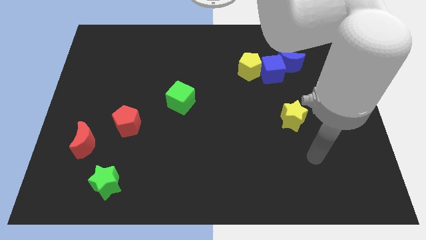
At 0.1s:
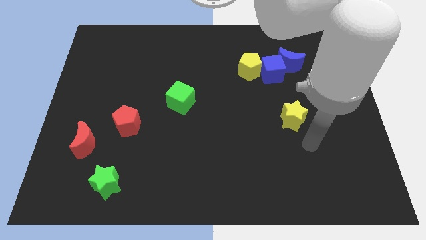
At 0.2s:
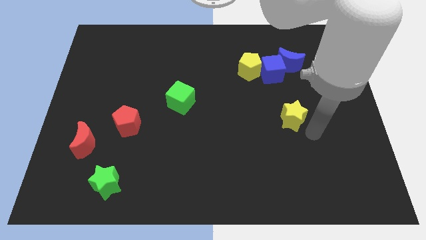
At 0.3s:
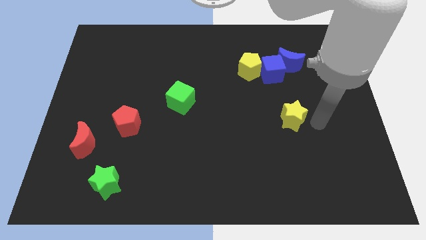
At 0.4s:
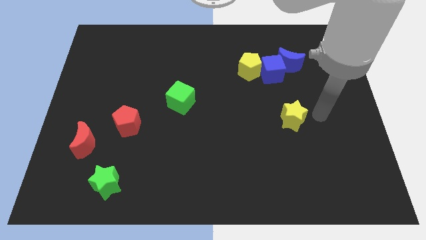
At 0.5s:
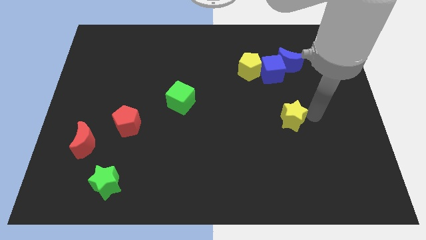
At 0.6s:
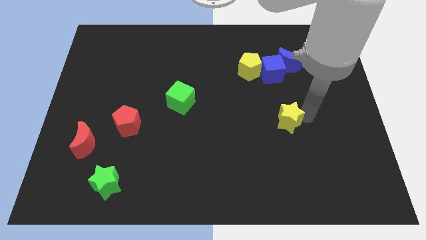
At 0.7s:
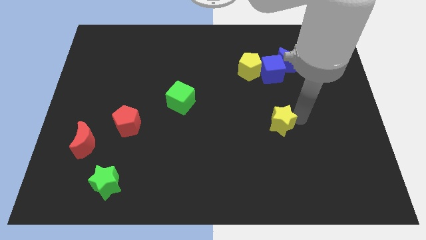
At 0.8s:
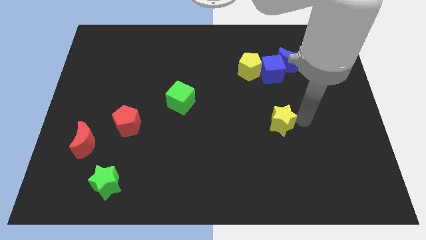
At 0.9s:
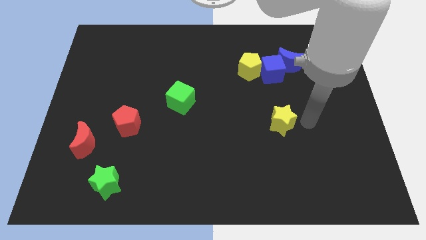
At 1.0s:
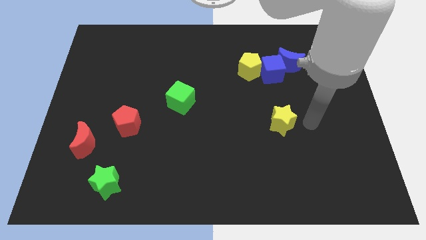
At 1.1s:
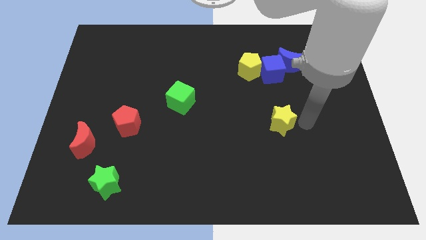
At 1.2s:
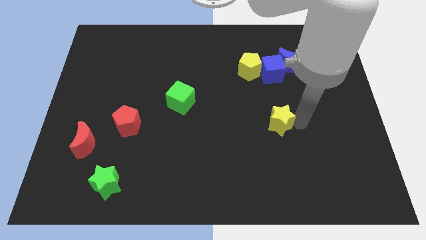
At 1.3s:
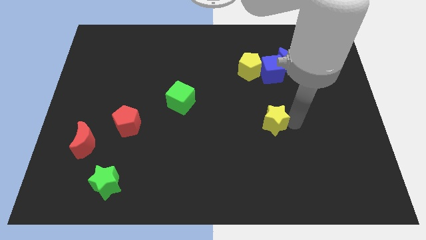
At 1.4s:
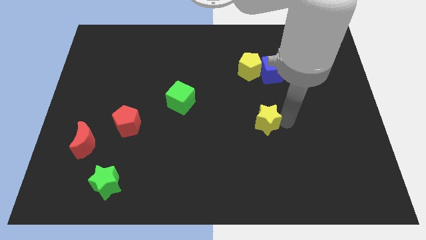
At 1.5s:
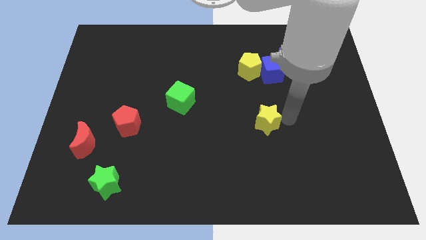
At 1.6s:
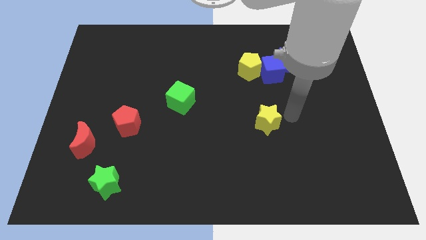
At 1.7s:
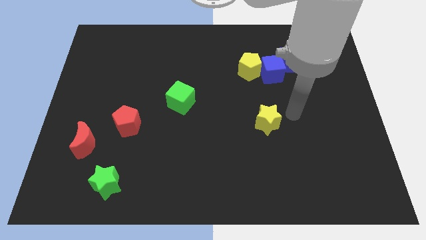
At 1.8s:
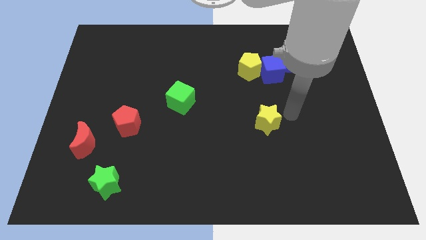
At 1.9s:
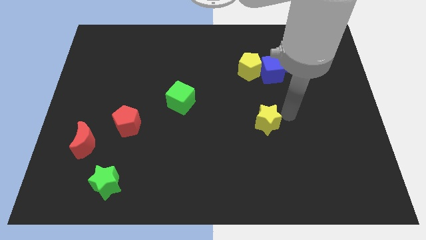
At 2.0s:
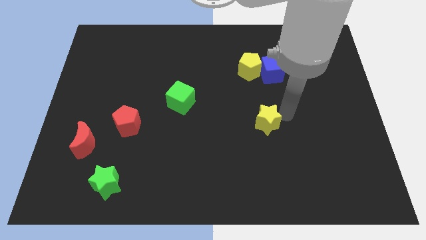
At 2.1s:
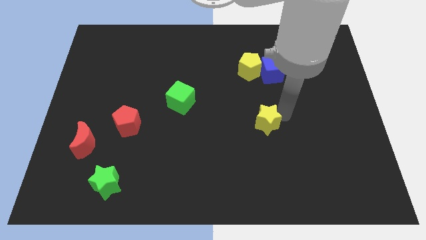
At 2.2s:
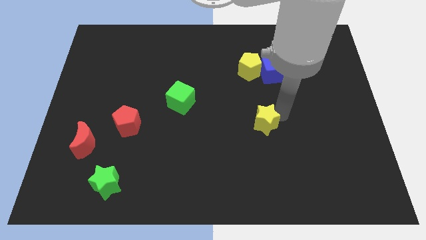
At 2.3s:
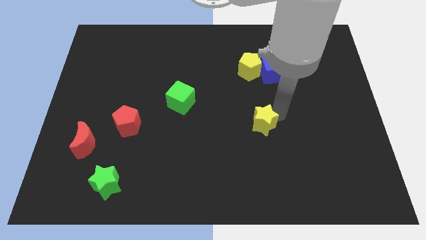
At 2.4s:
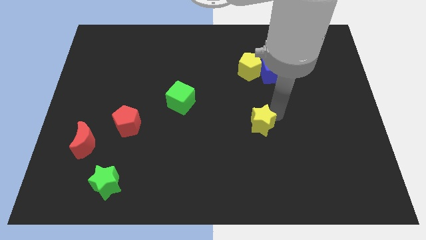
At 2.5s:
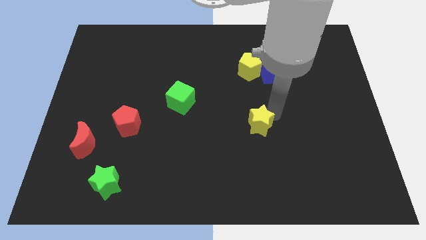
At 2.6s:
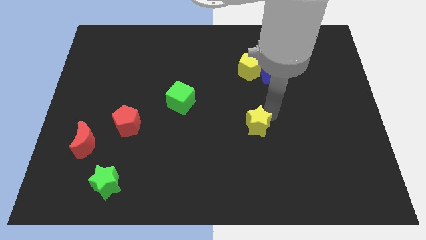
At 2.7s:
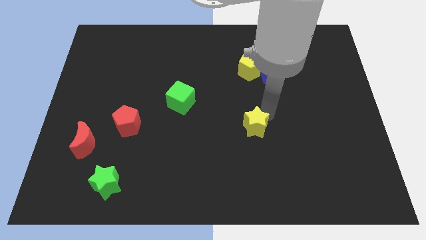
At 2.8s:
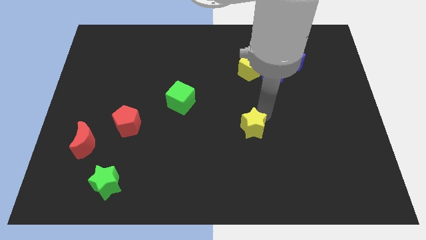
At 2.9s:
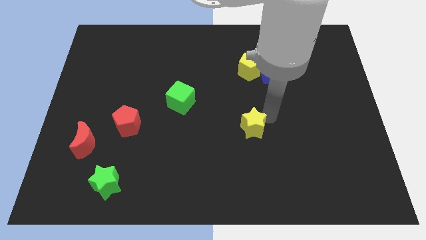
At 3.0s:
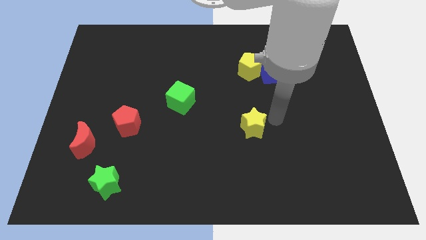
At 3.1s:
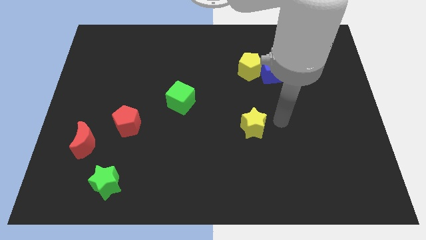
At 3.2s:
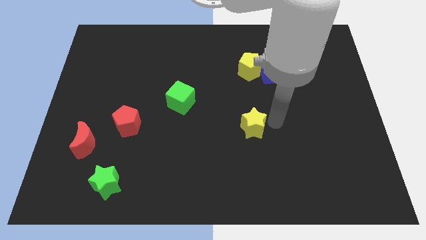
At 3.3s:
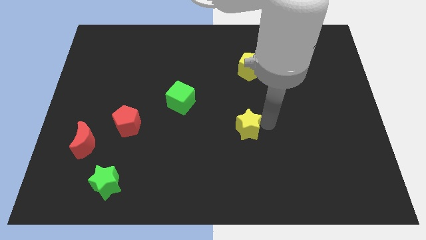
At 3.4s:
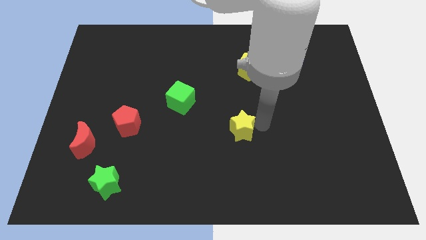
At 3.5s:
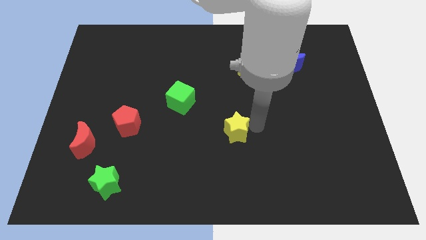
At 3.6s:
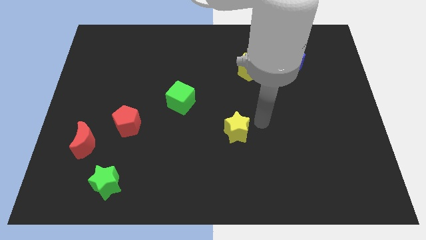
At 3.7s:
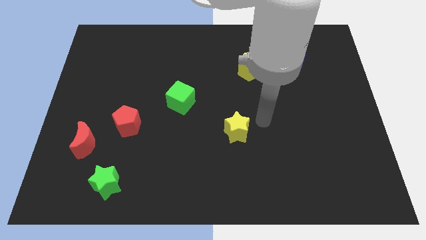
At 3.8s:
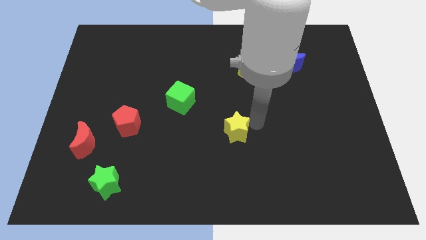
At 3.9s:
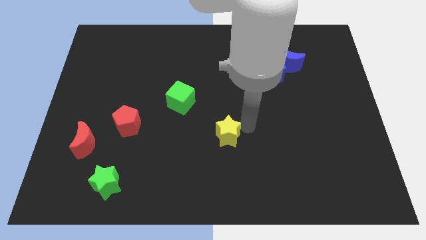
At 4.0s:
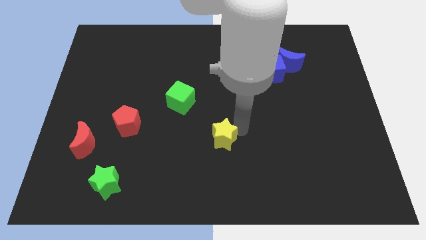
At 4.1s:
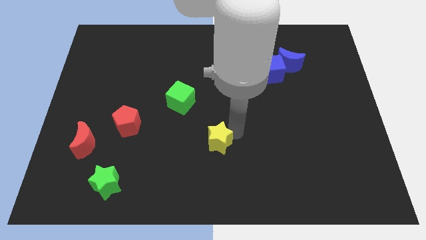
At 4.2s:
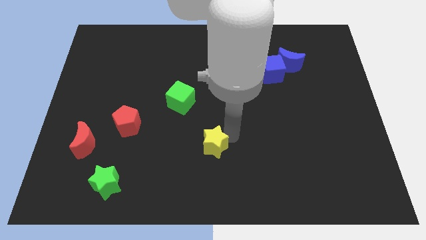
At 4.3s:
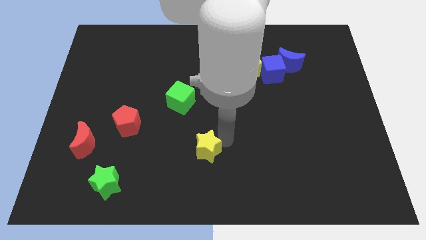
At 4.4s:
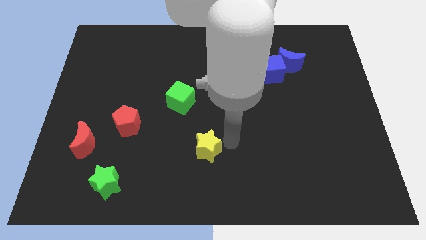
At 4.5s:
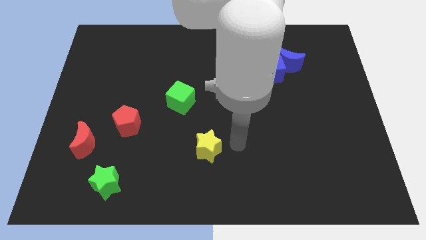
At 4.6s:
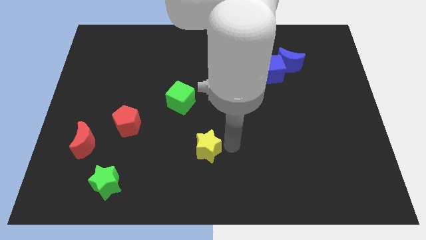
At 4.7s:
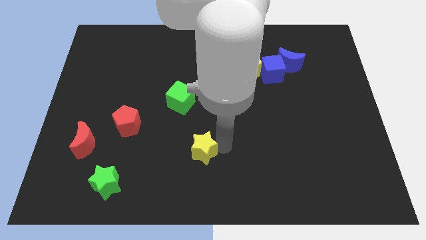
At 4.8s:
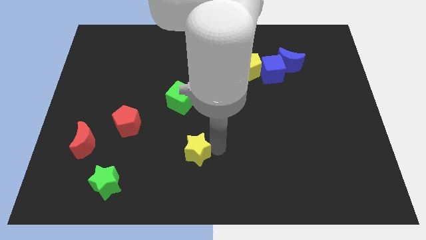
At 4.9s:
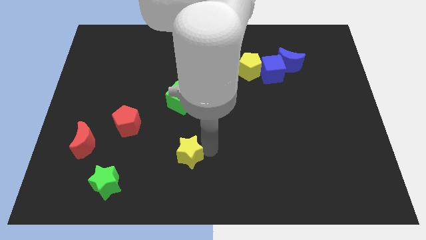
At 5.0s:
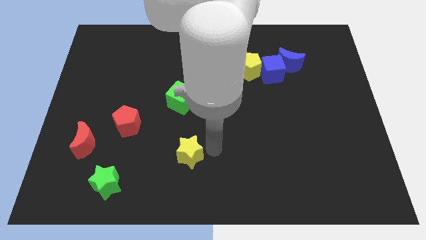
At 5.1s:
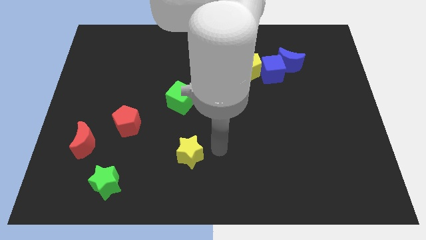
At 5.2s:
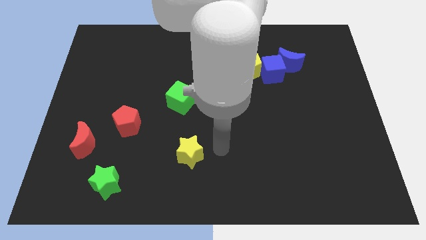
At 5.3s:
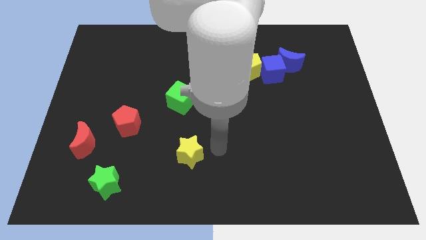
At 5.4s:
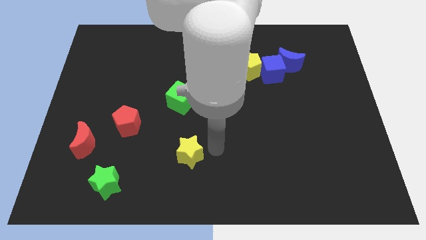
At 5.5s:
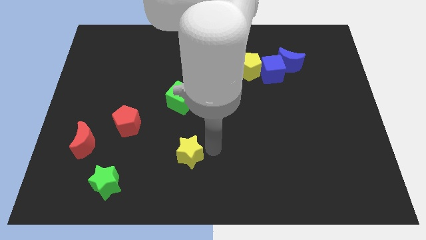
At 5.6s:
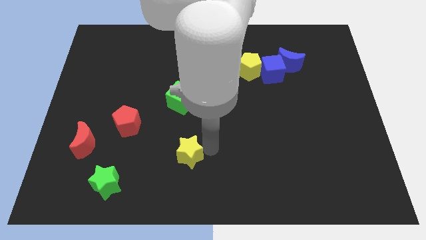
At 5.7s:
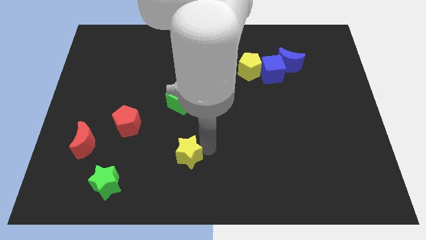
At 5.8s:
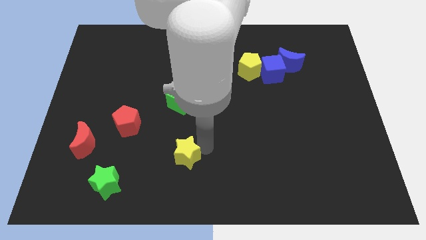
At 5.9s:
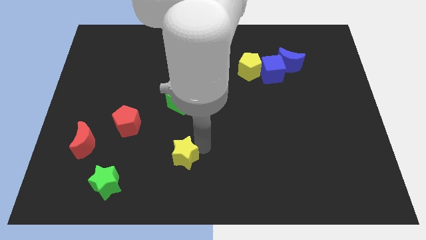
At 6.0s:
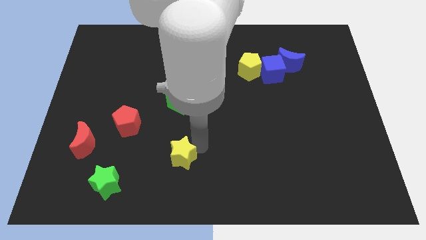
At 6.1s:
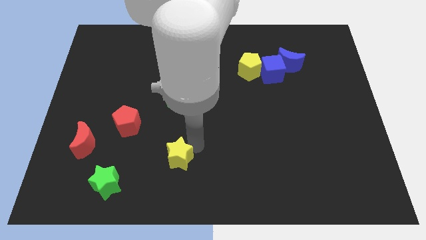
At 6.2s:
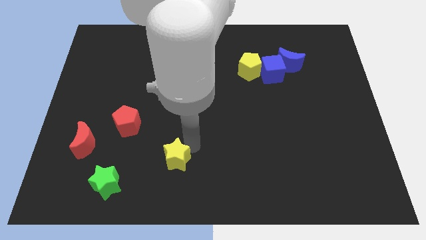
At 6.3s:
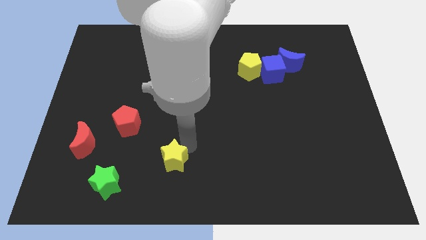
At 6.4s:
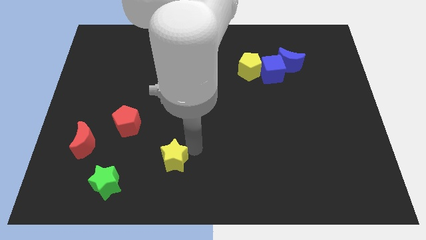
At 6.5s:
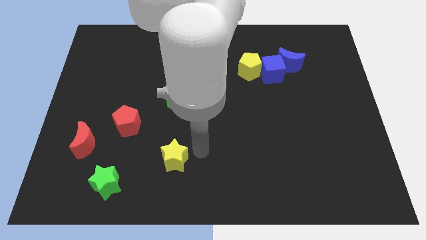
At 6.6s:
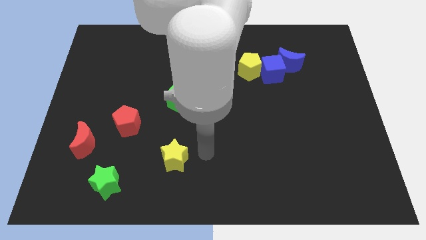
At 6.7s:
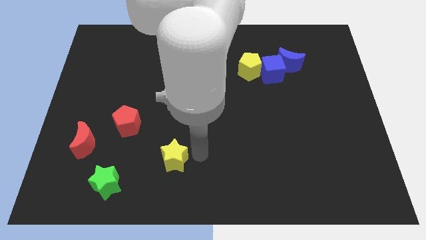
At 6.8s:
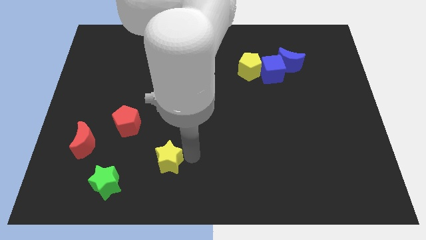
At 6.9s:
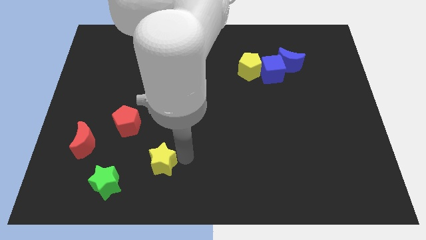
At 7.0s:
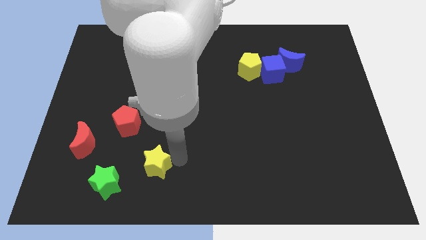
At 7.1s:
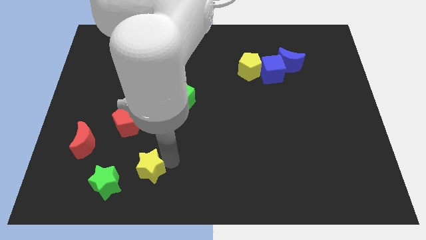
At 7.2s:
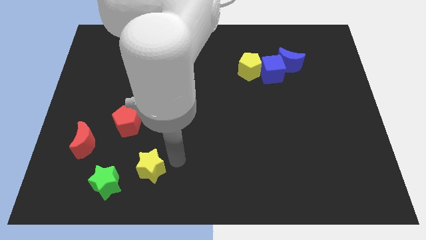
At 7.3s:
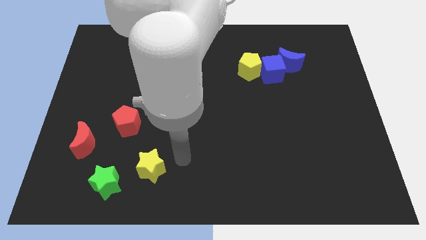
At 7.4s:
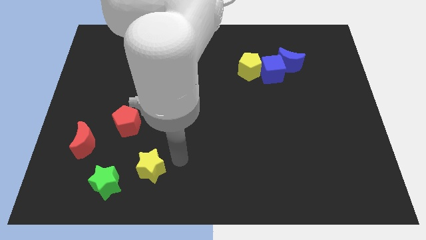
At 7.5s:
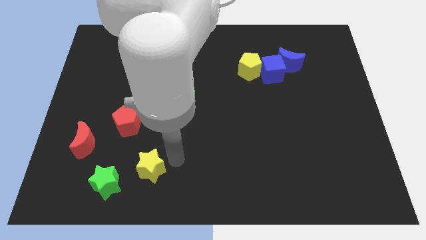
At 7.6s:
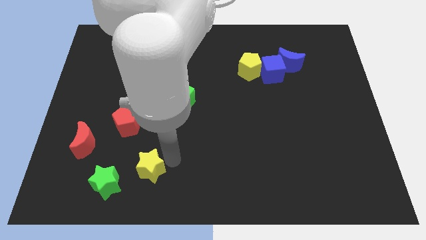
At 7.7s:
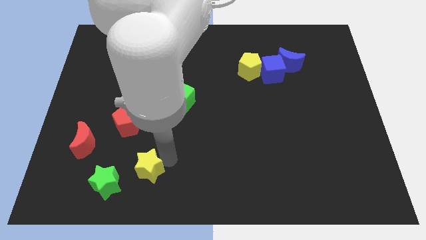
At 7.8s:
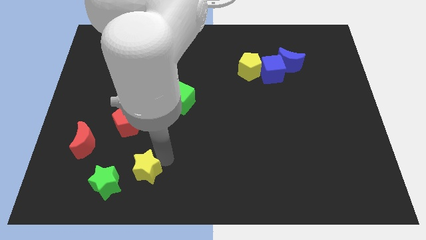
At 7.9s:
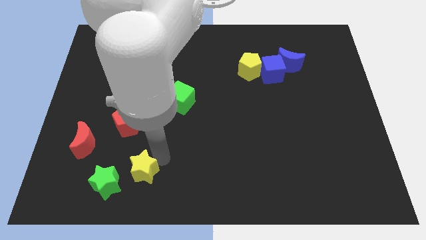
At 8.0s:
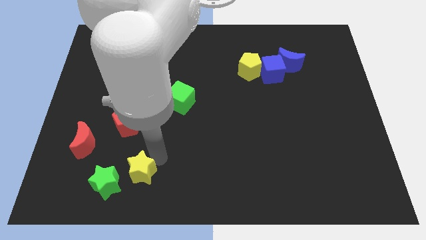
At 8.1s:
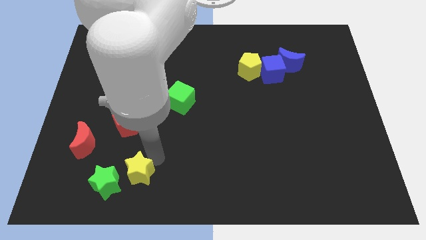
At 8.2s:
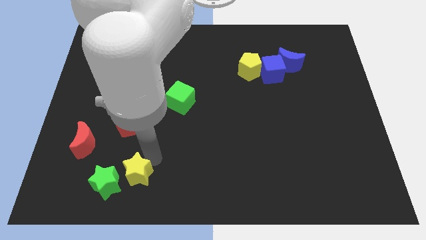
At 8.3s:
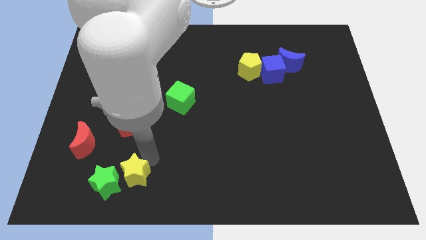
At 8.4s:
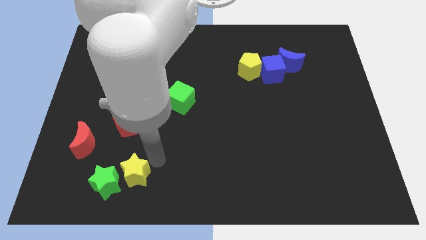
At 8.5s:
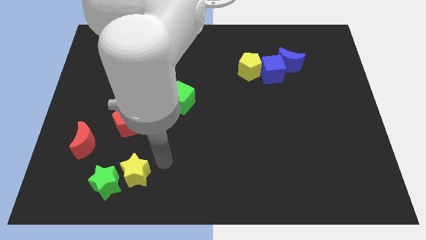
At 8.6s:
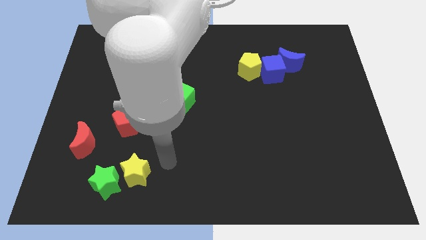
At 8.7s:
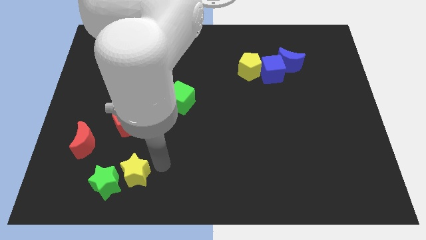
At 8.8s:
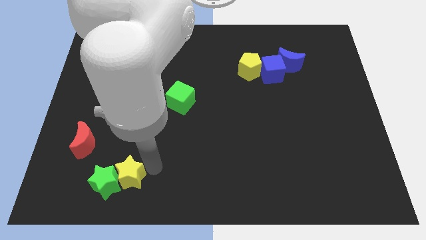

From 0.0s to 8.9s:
push the yellow star towards the green star
